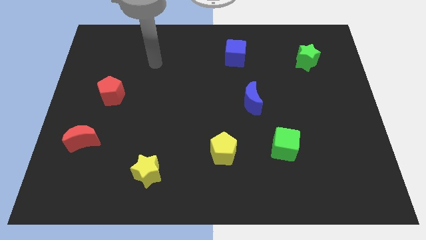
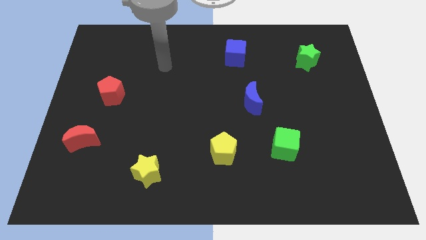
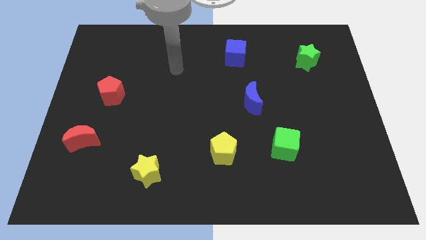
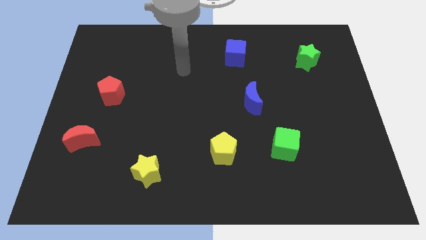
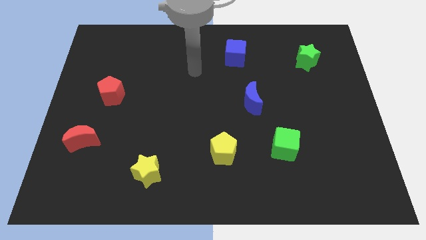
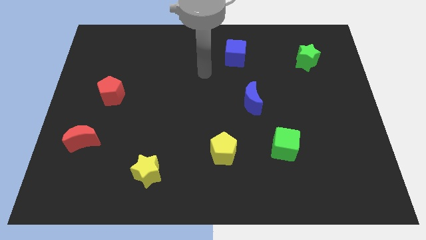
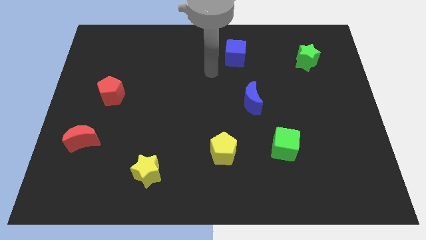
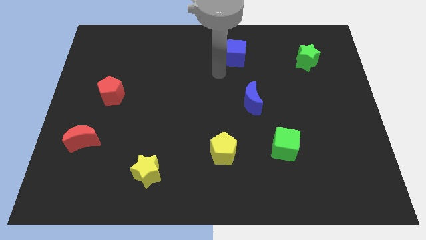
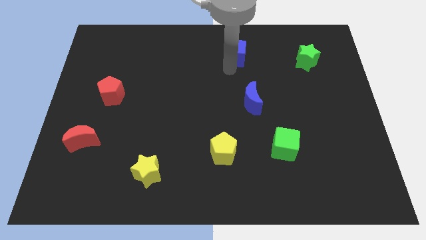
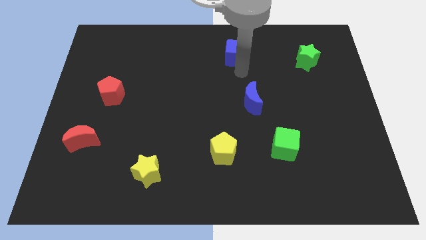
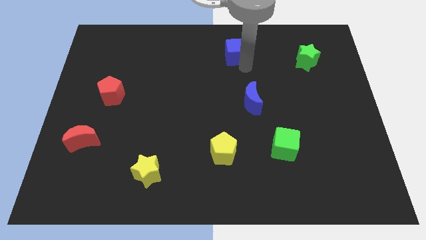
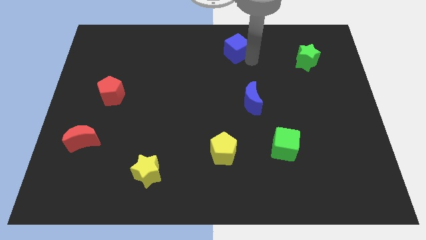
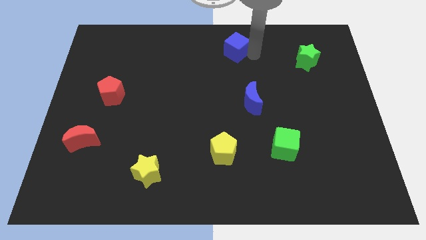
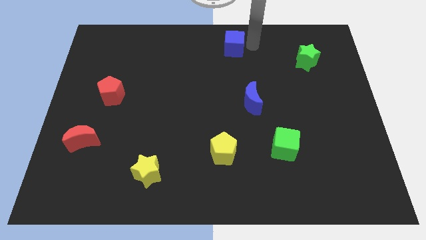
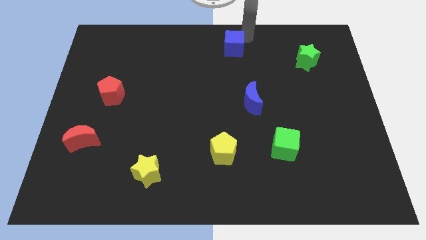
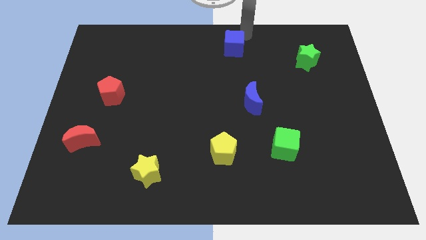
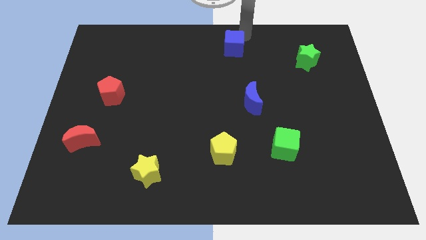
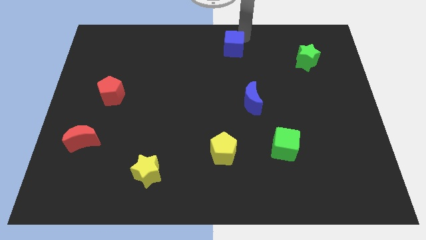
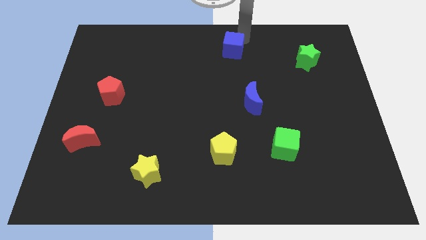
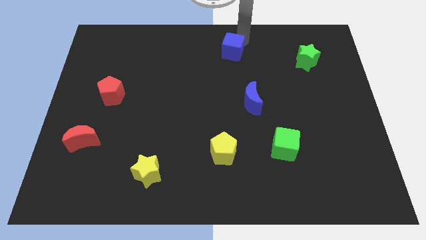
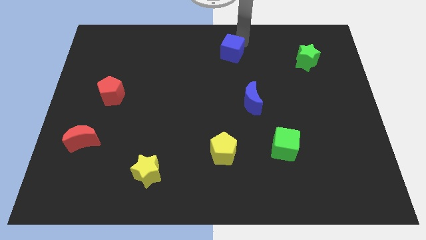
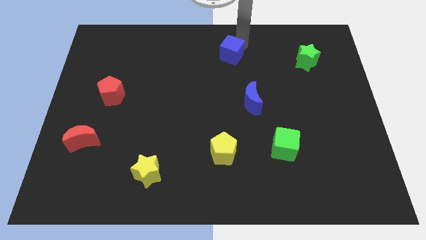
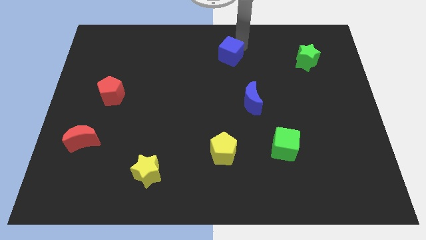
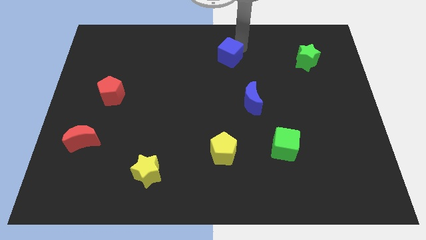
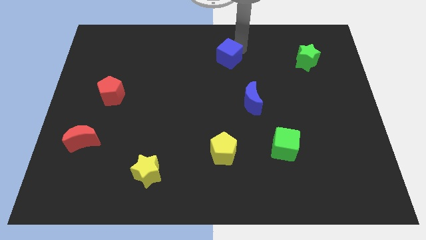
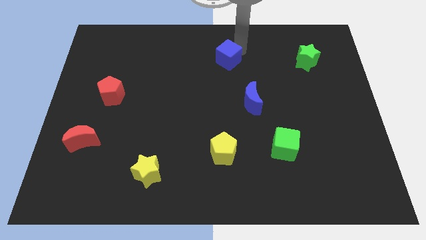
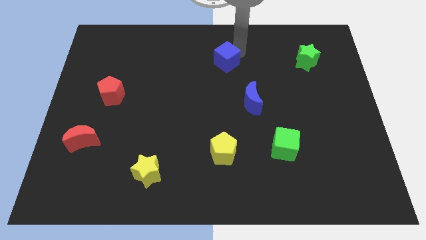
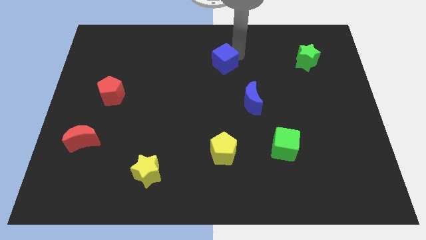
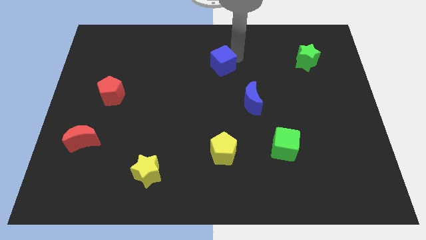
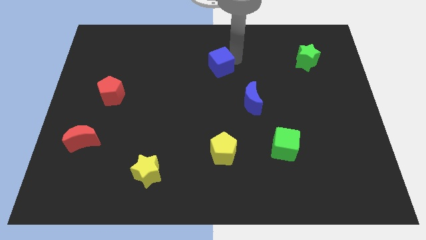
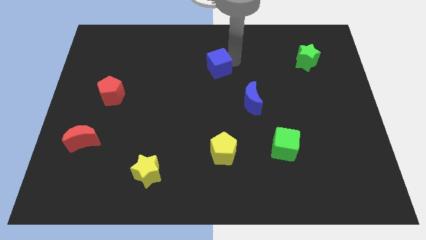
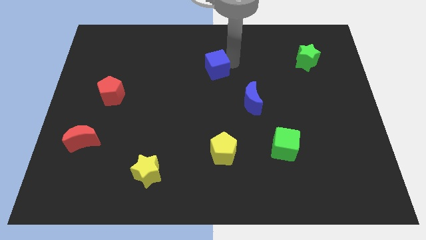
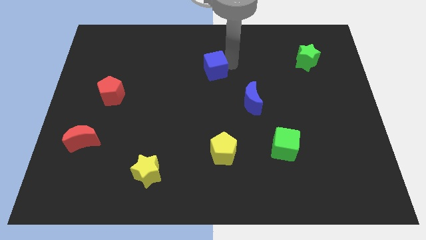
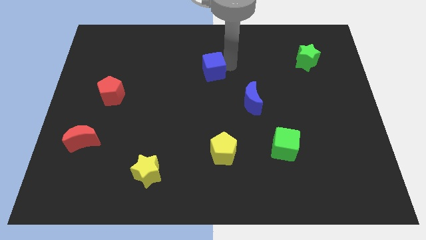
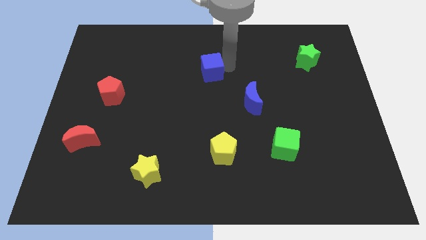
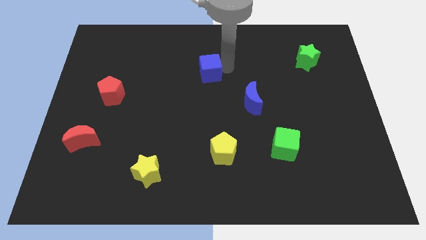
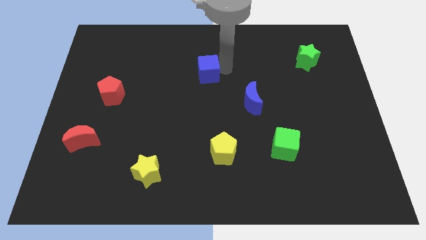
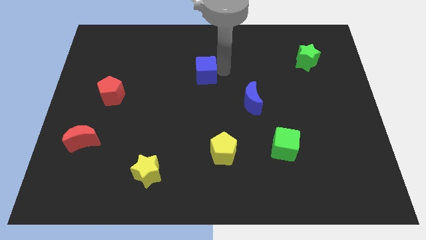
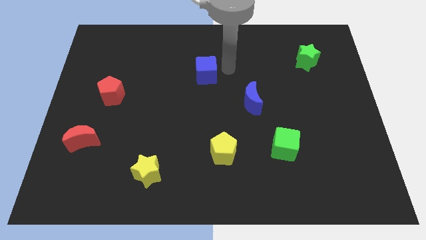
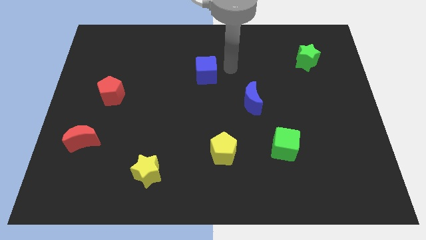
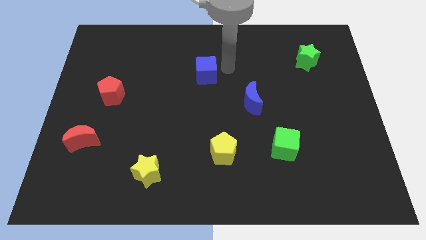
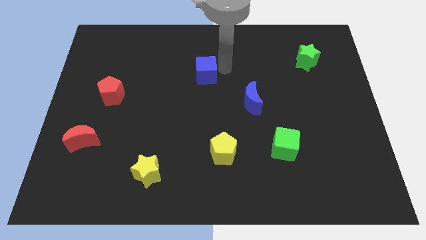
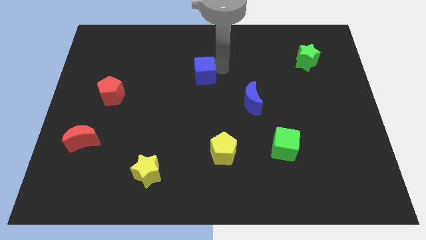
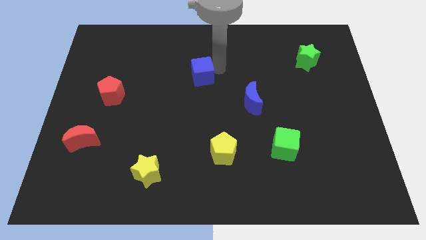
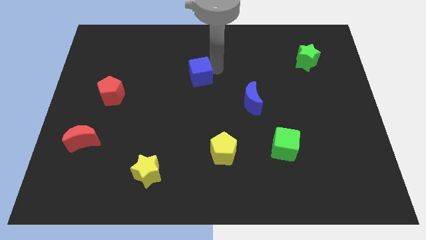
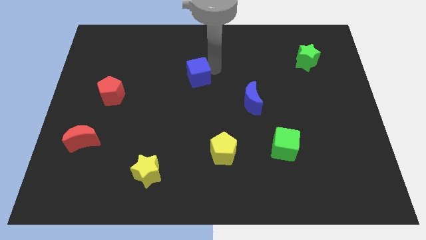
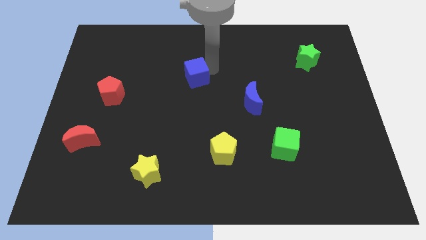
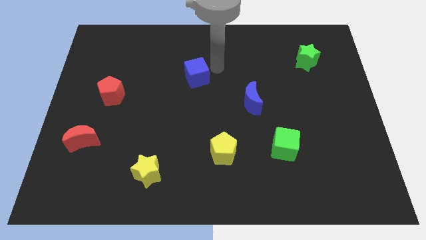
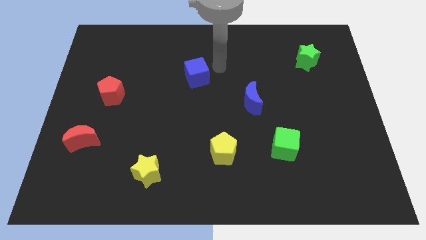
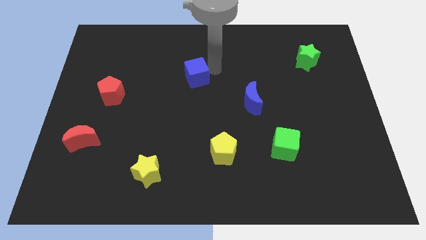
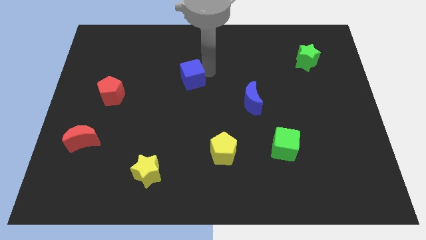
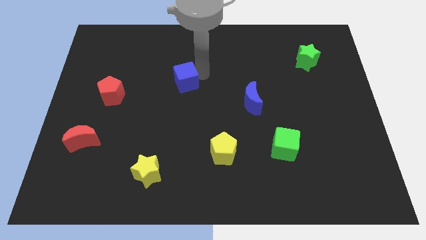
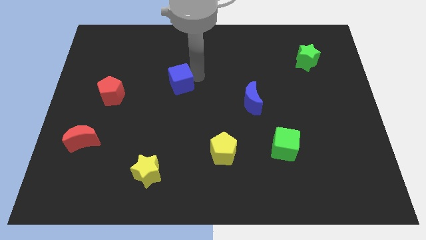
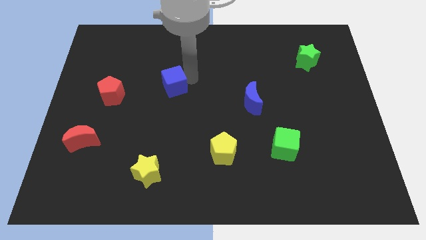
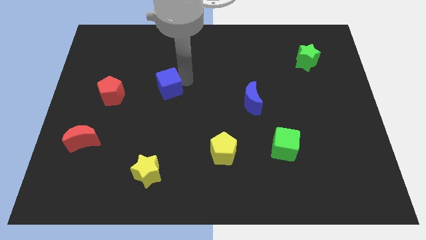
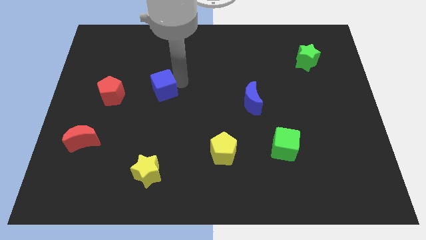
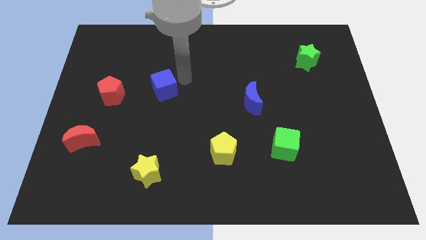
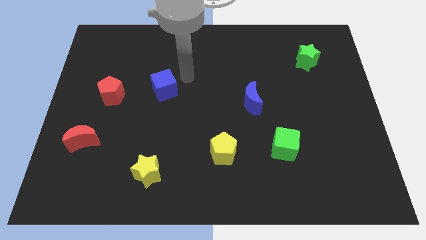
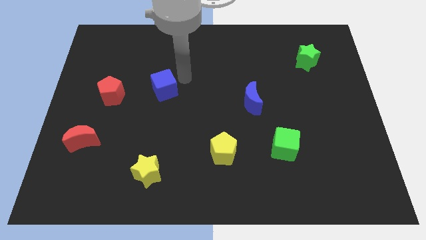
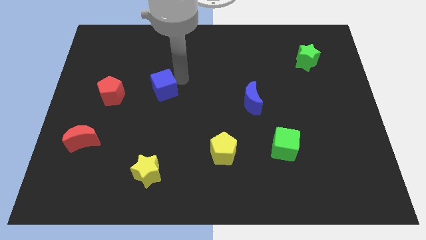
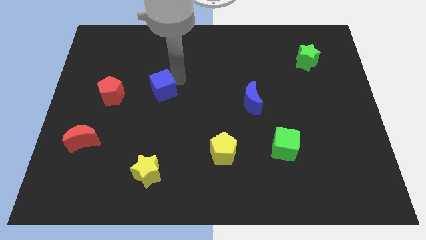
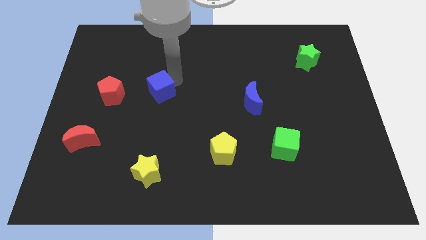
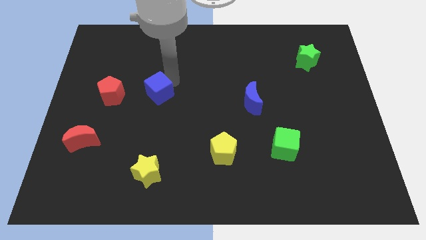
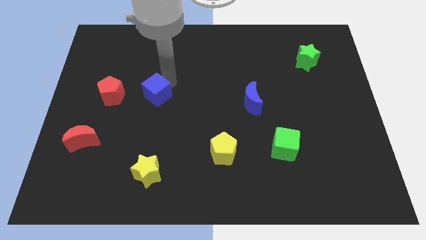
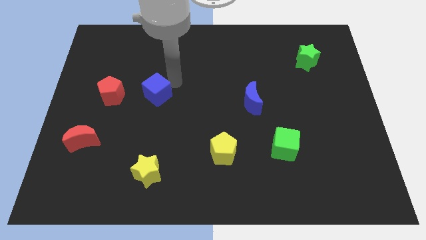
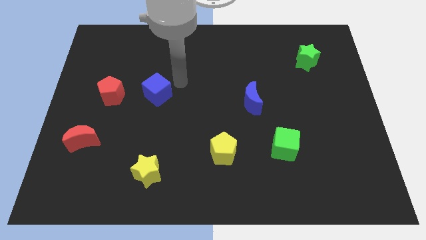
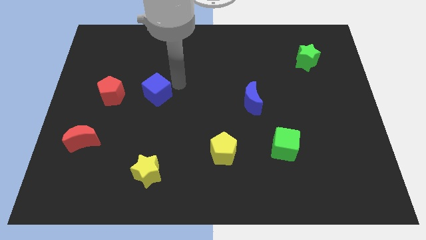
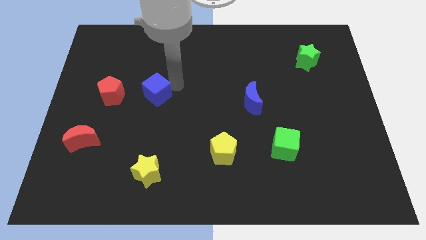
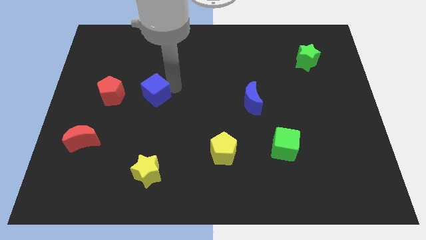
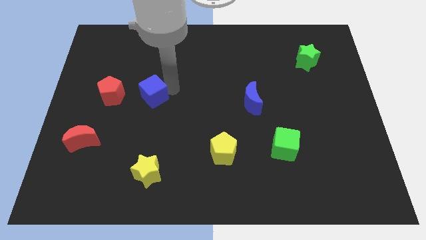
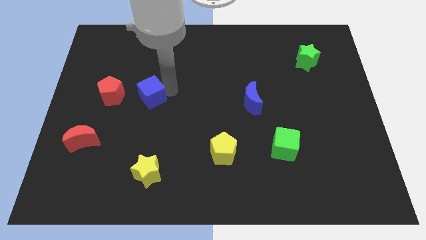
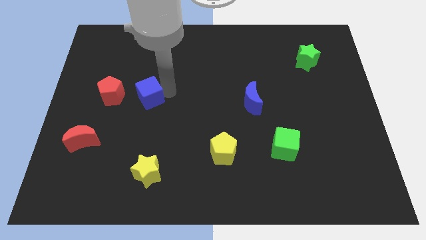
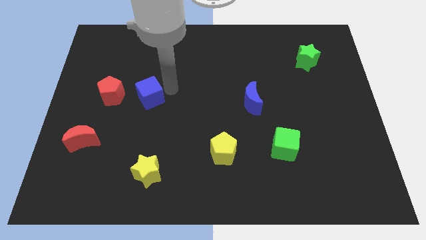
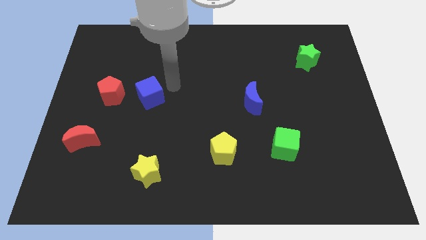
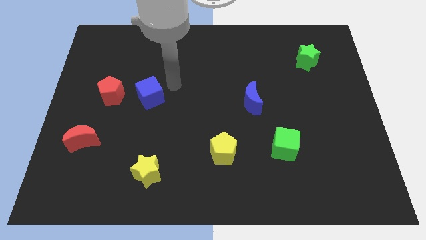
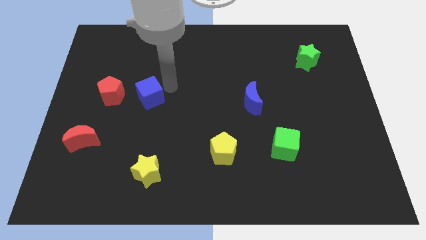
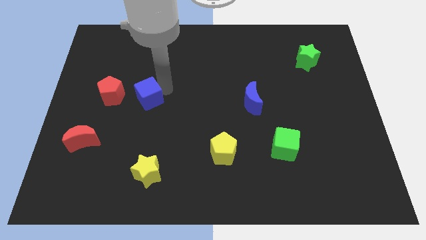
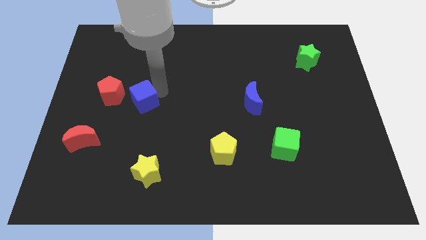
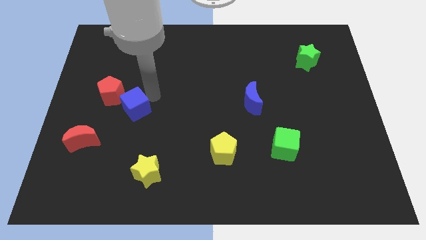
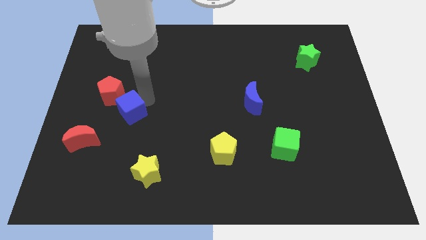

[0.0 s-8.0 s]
slide the blue cube diagonally up and to the right of the red moon
